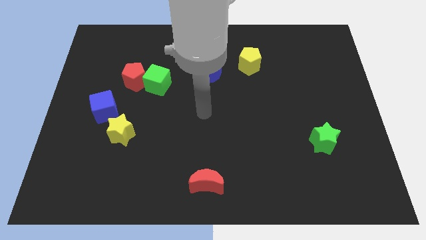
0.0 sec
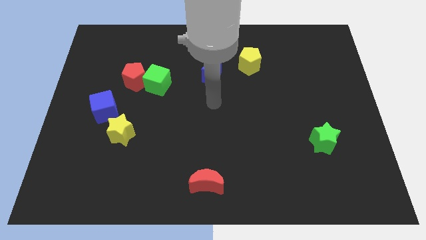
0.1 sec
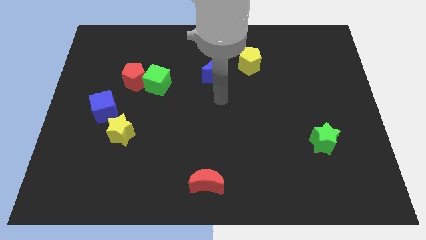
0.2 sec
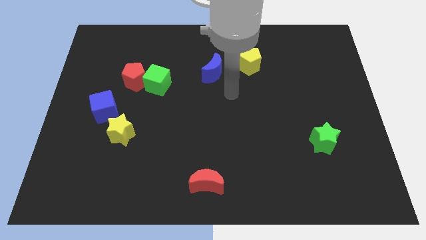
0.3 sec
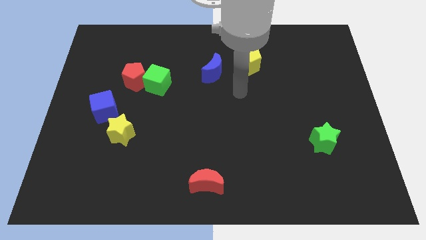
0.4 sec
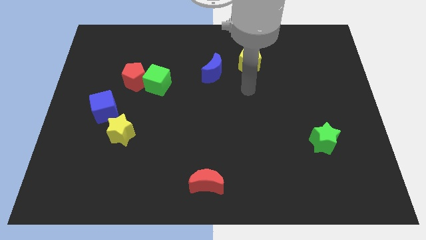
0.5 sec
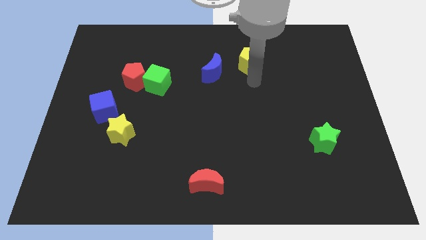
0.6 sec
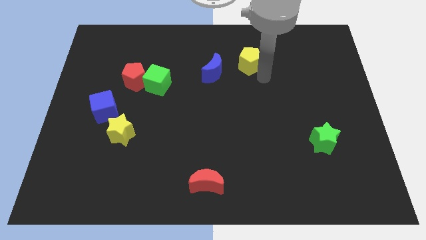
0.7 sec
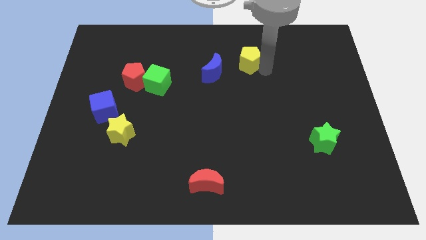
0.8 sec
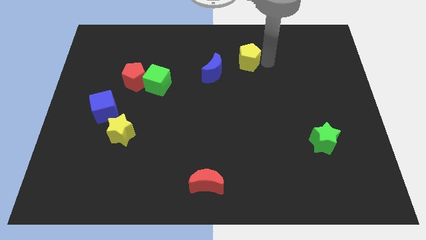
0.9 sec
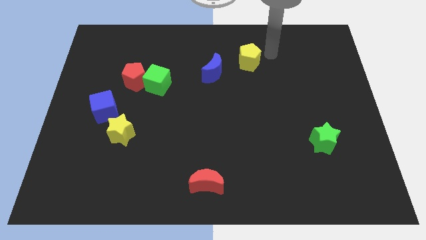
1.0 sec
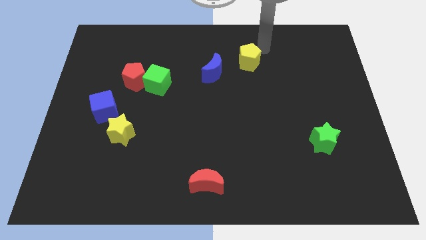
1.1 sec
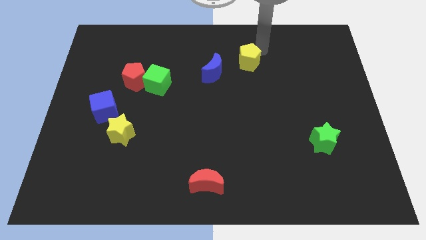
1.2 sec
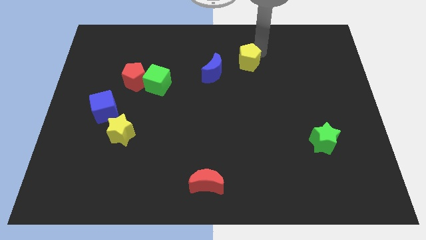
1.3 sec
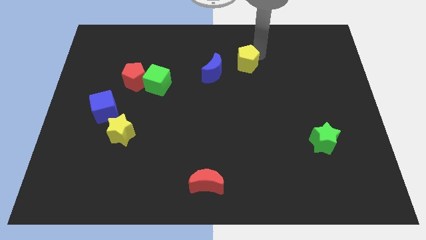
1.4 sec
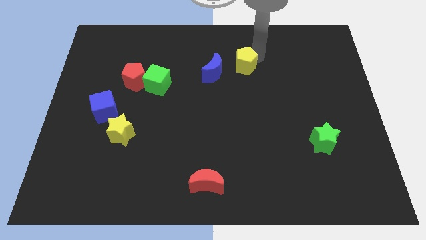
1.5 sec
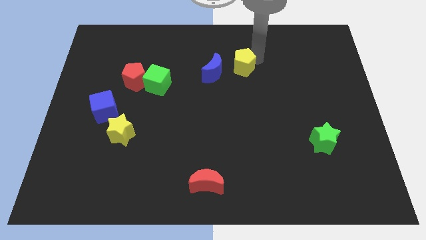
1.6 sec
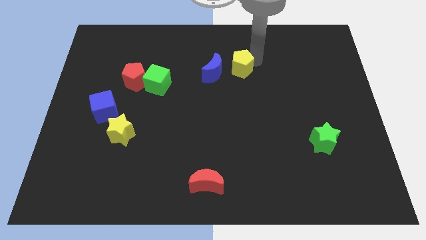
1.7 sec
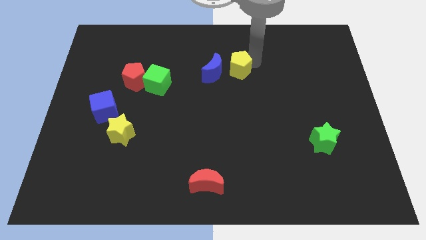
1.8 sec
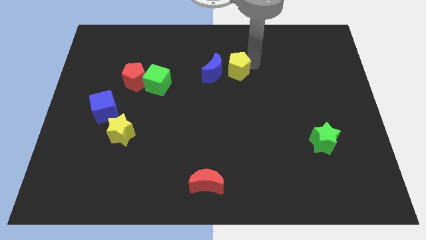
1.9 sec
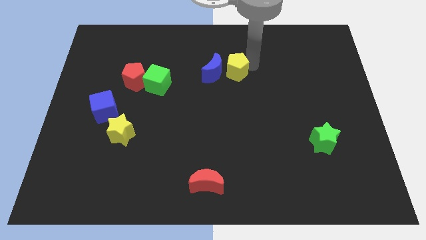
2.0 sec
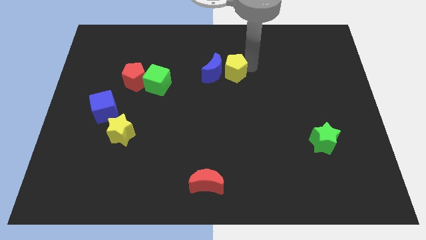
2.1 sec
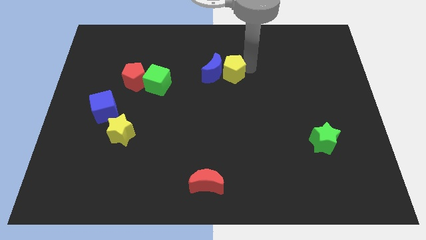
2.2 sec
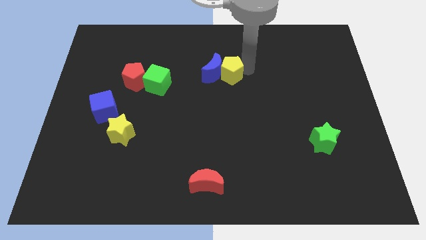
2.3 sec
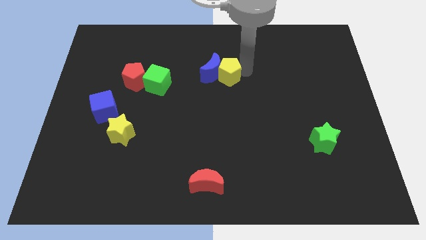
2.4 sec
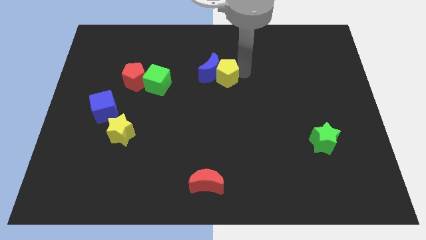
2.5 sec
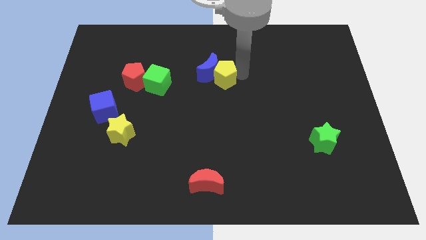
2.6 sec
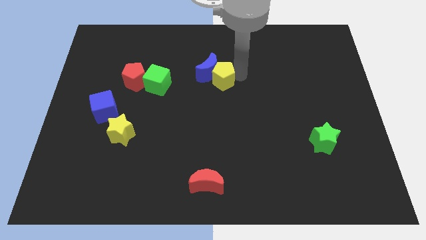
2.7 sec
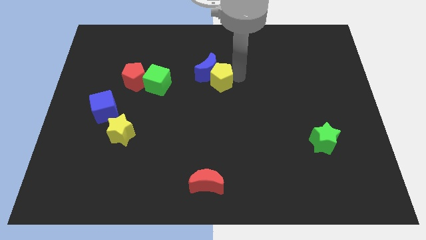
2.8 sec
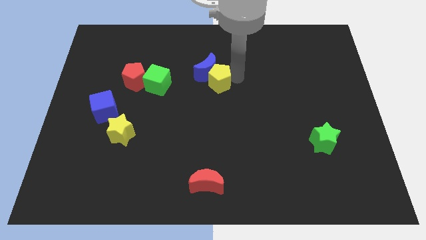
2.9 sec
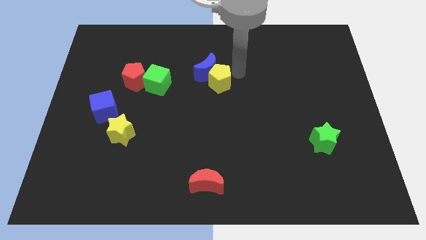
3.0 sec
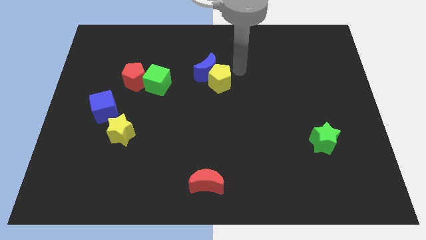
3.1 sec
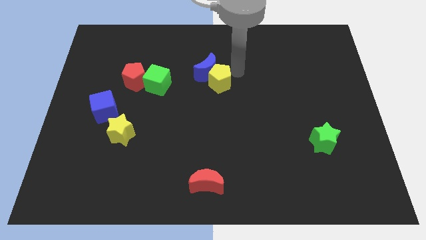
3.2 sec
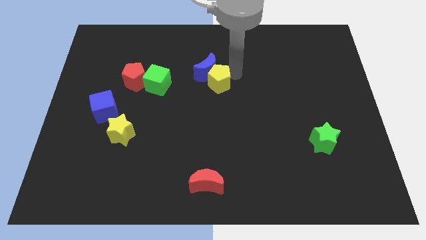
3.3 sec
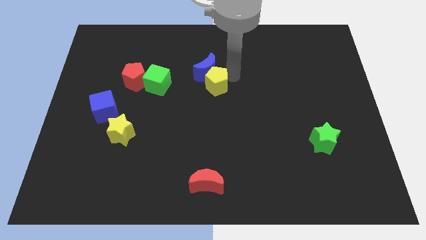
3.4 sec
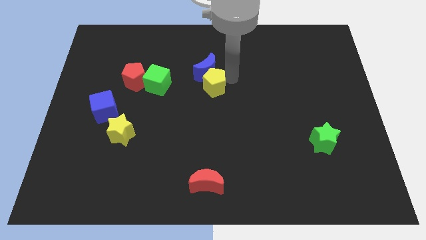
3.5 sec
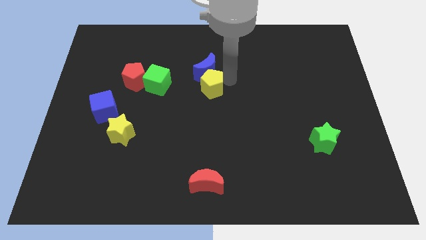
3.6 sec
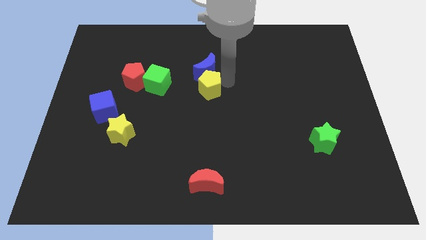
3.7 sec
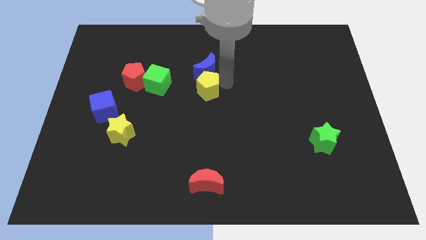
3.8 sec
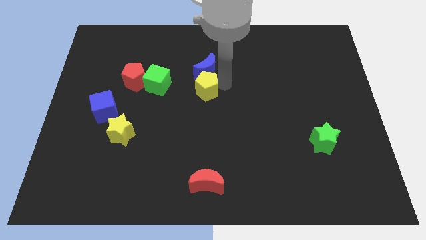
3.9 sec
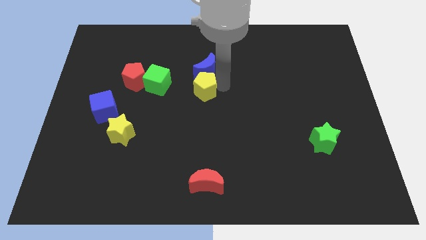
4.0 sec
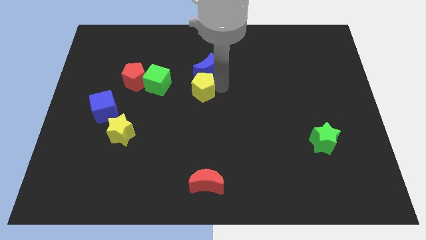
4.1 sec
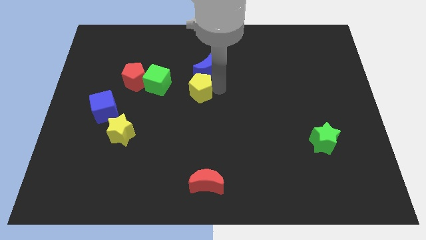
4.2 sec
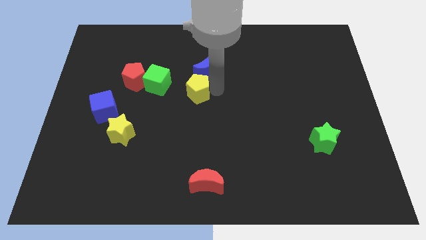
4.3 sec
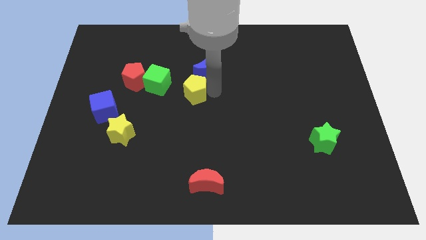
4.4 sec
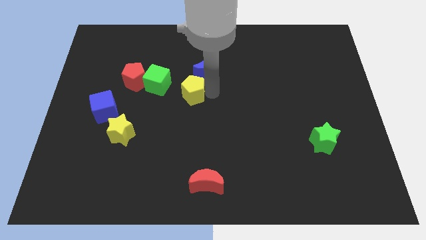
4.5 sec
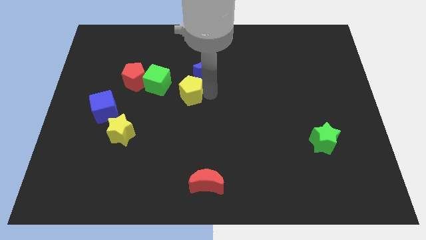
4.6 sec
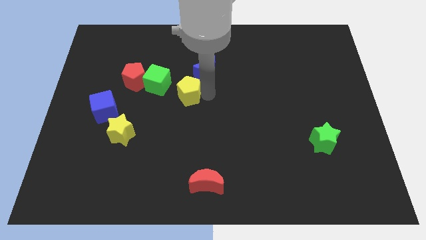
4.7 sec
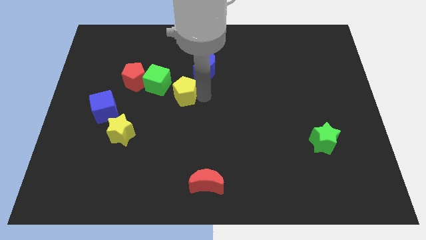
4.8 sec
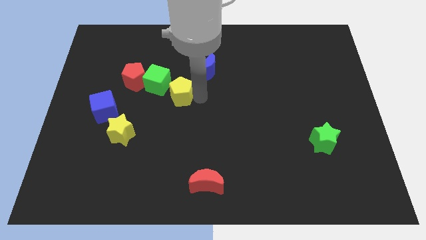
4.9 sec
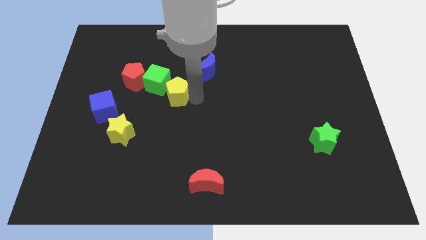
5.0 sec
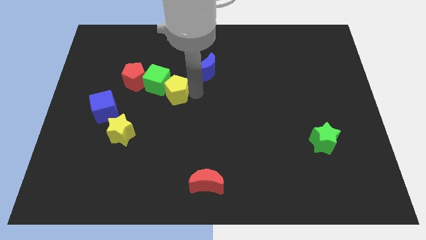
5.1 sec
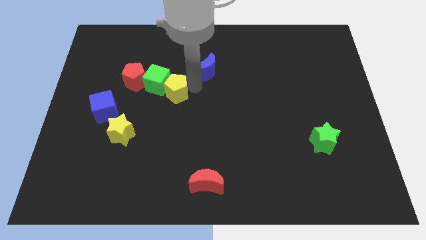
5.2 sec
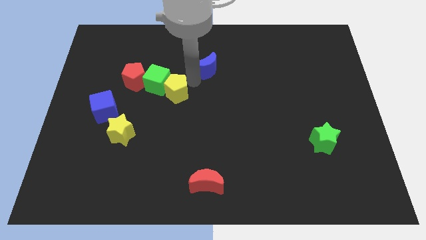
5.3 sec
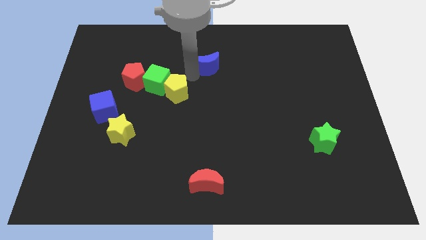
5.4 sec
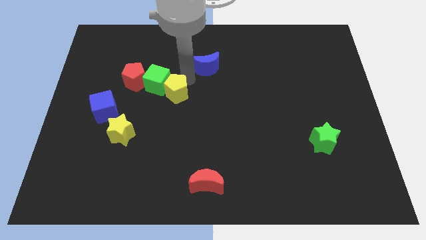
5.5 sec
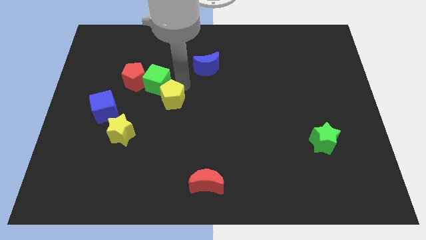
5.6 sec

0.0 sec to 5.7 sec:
move the yellow pentagon to the bottom of the green cube

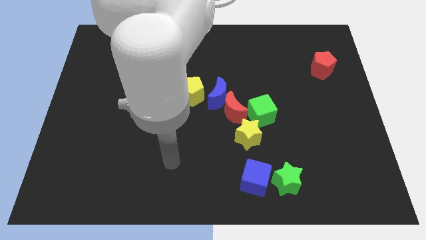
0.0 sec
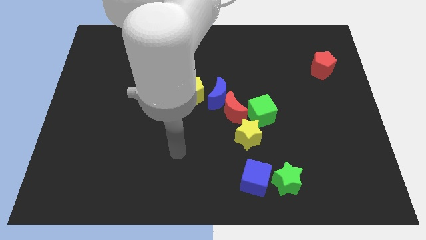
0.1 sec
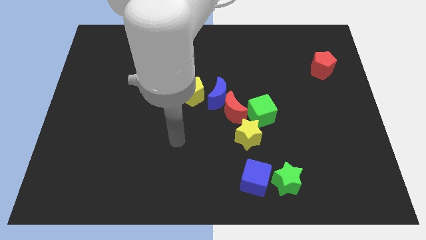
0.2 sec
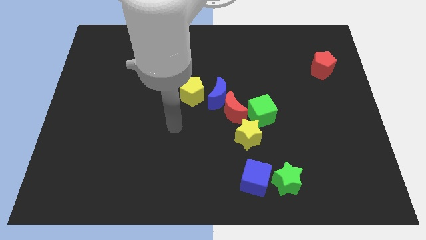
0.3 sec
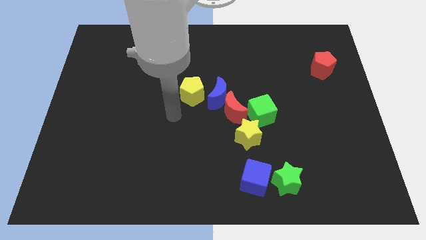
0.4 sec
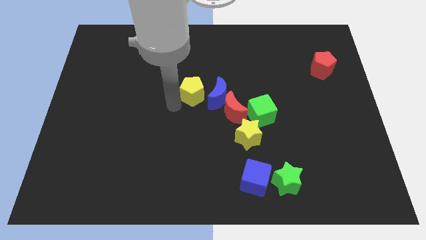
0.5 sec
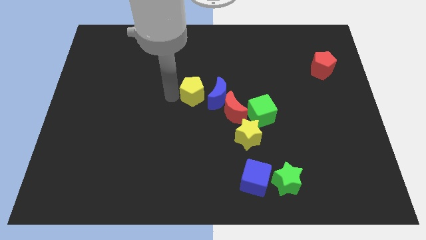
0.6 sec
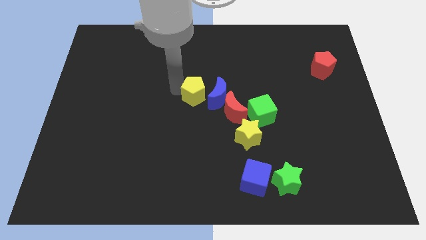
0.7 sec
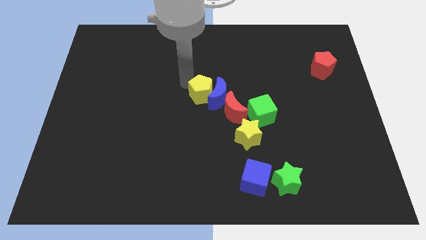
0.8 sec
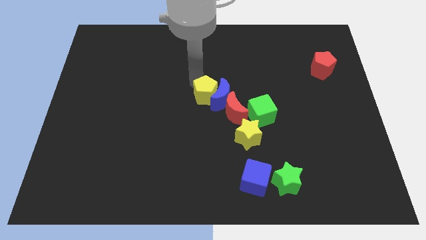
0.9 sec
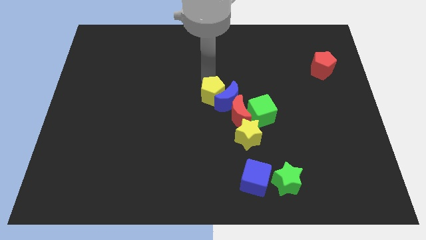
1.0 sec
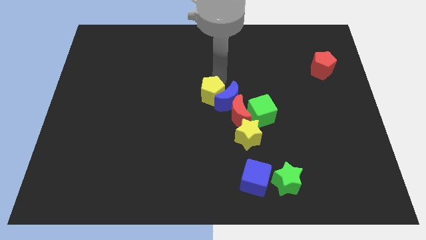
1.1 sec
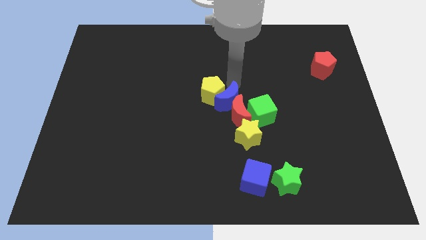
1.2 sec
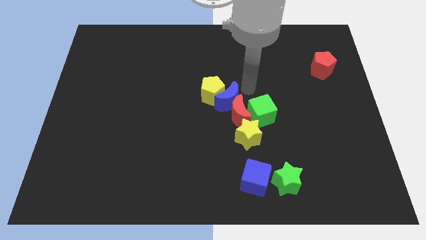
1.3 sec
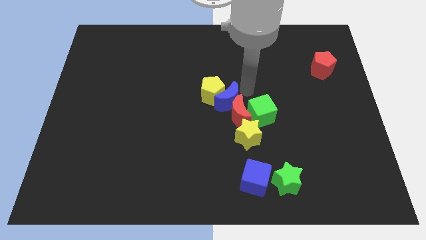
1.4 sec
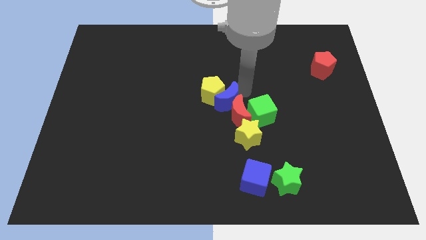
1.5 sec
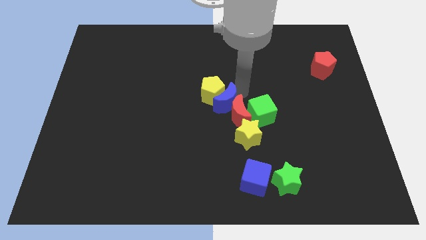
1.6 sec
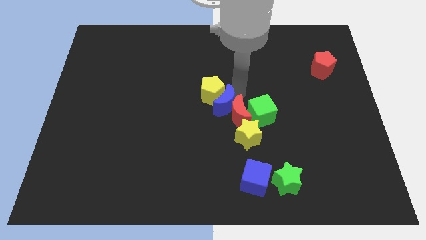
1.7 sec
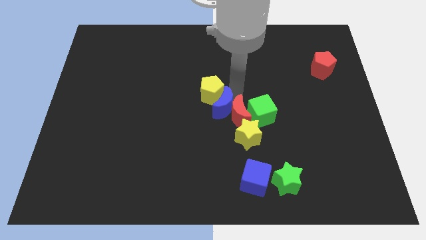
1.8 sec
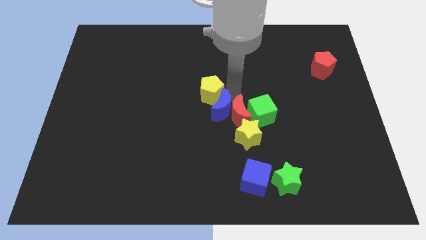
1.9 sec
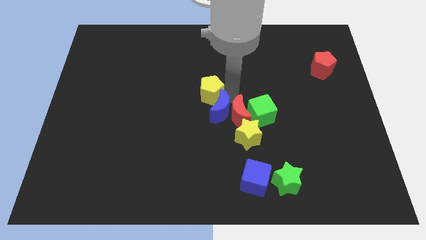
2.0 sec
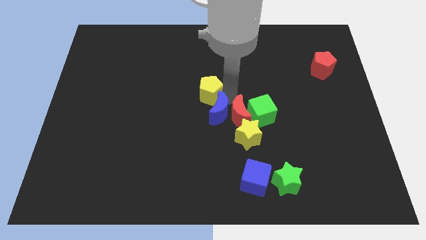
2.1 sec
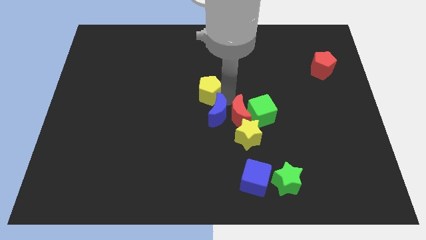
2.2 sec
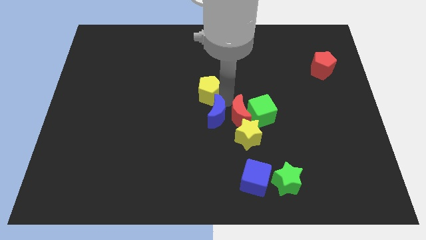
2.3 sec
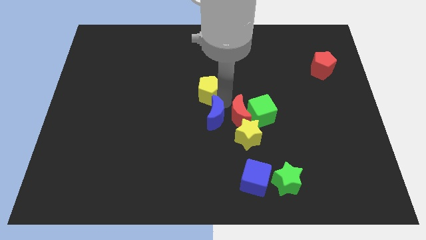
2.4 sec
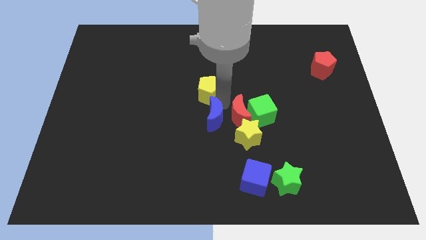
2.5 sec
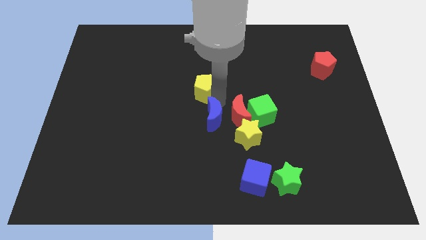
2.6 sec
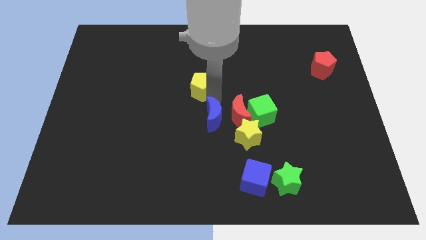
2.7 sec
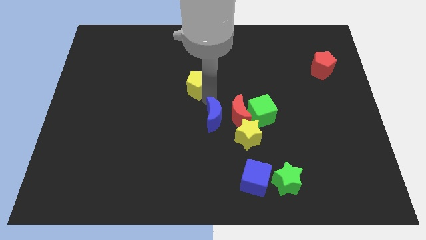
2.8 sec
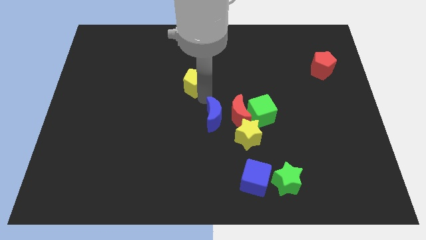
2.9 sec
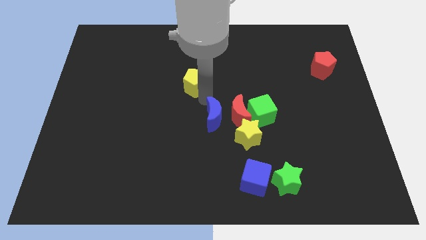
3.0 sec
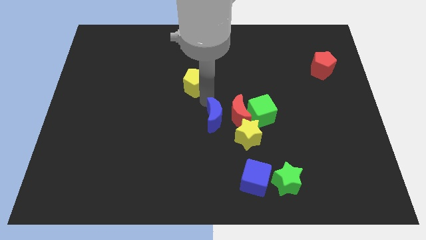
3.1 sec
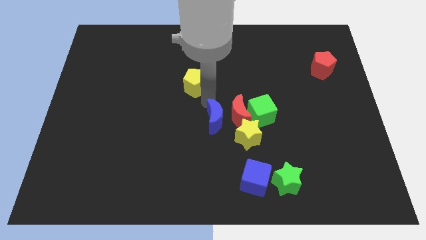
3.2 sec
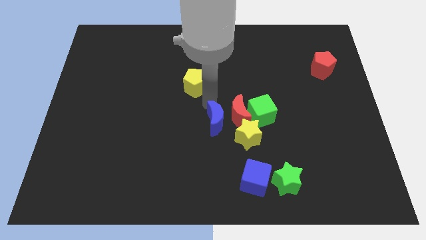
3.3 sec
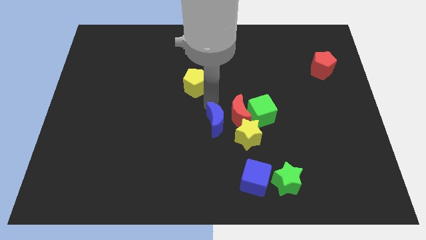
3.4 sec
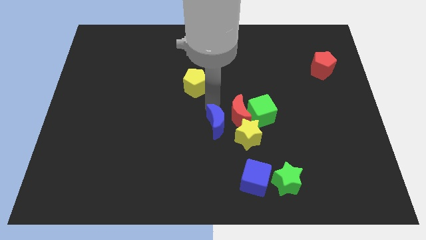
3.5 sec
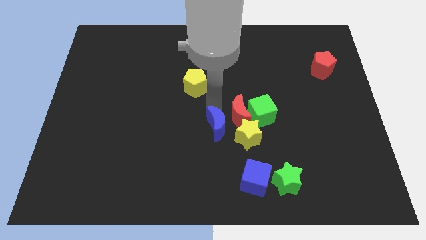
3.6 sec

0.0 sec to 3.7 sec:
push the blue moon to the bottom left side of the green cube
